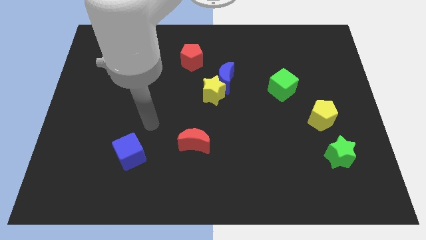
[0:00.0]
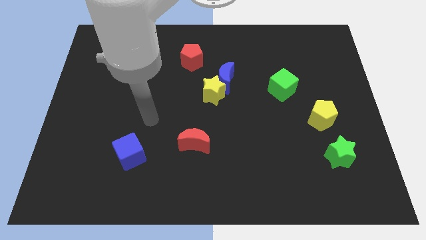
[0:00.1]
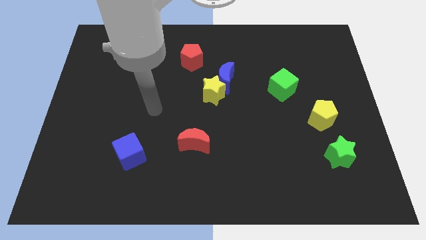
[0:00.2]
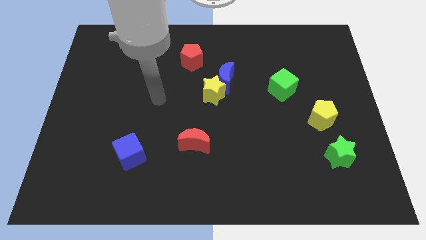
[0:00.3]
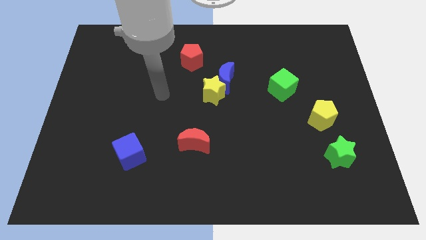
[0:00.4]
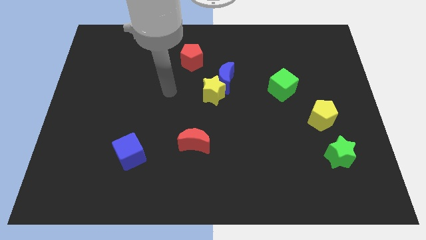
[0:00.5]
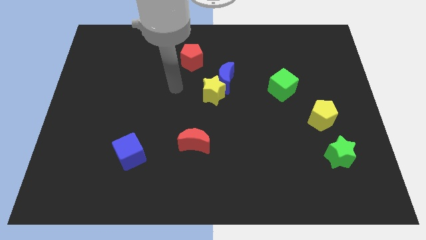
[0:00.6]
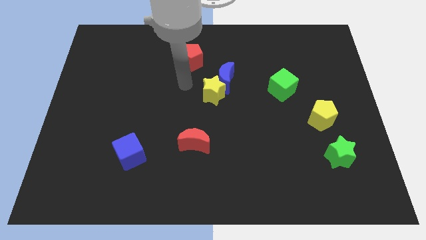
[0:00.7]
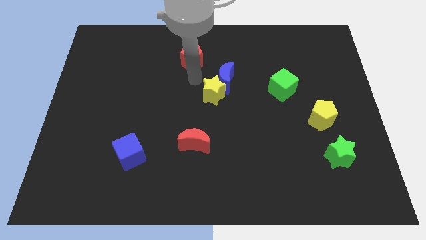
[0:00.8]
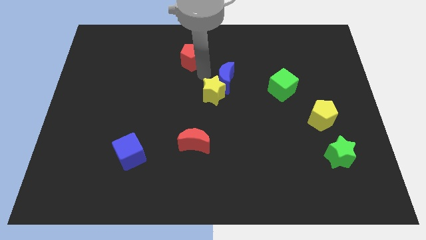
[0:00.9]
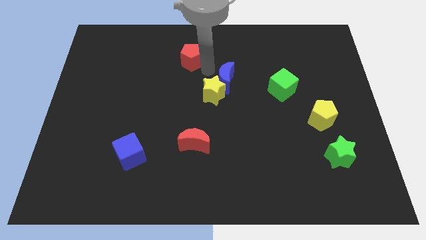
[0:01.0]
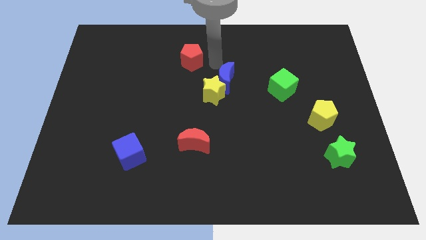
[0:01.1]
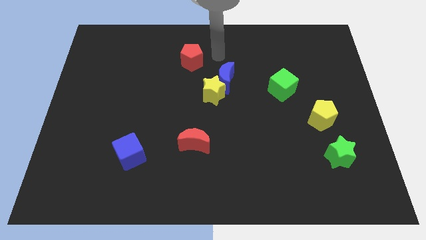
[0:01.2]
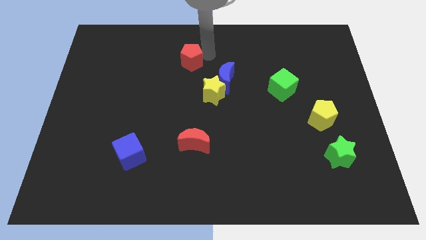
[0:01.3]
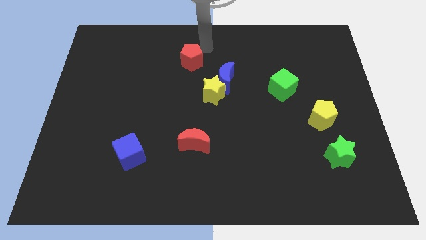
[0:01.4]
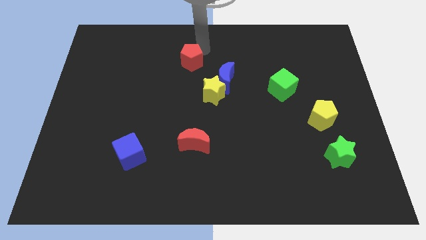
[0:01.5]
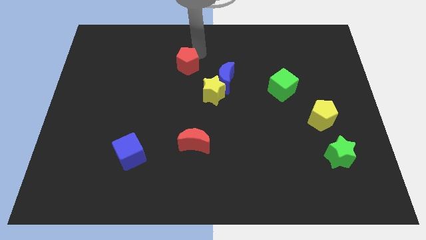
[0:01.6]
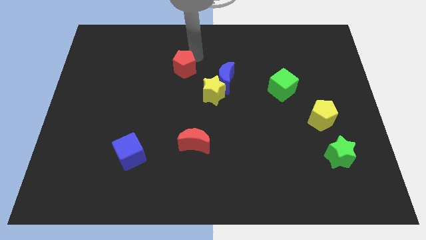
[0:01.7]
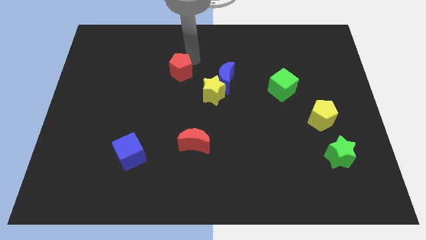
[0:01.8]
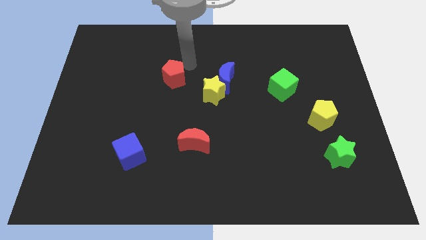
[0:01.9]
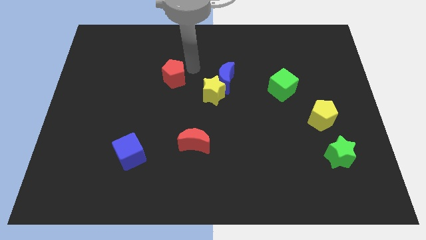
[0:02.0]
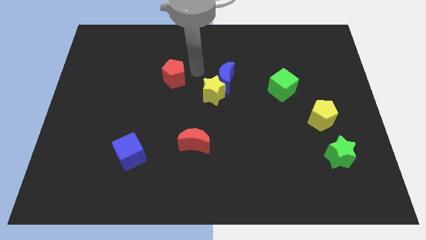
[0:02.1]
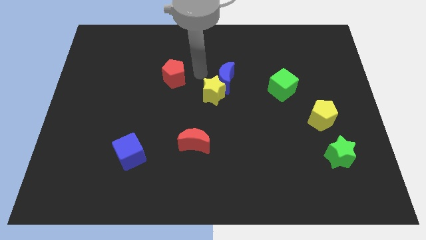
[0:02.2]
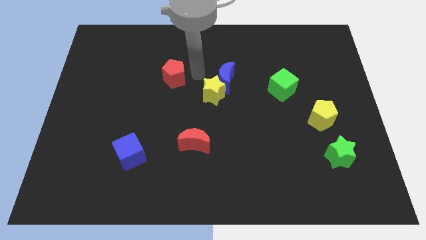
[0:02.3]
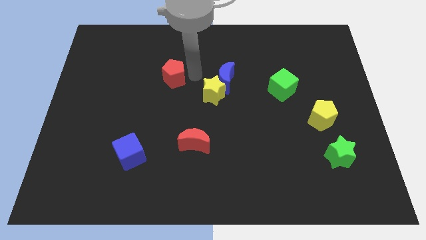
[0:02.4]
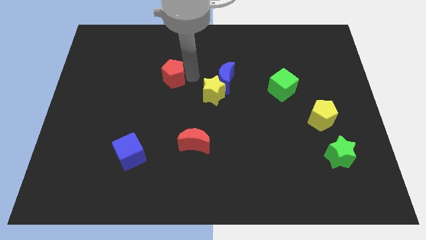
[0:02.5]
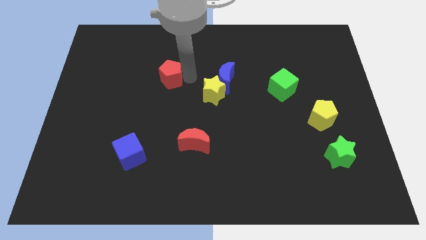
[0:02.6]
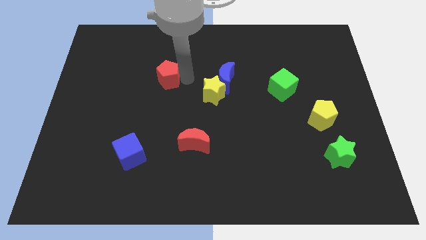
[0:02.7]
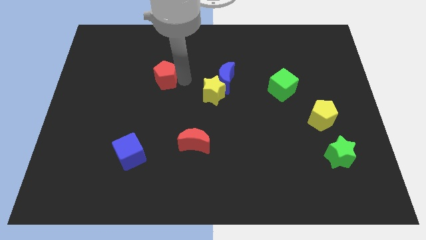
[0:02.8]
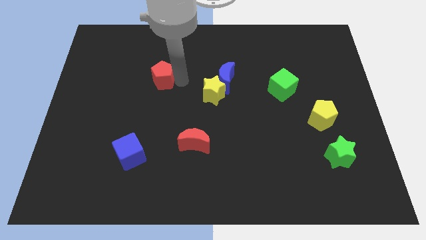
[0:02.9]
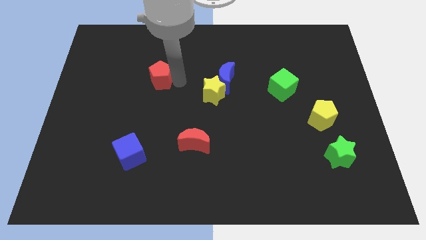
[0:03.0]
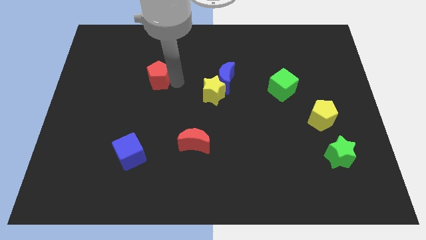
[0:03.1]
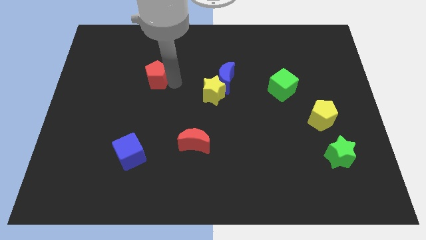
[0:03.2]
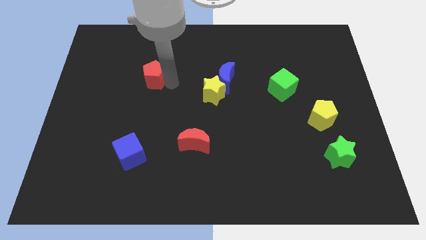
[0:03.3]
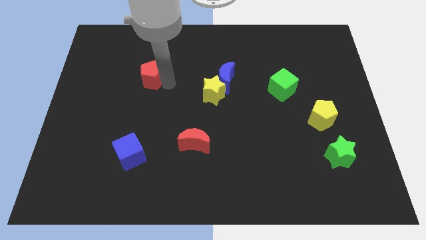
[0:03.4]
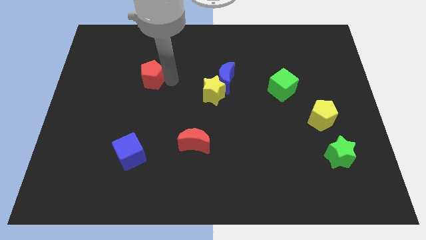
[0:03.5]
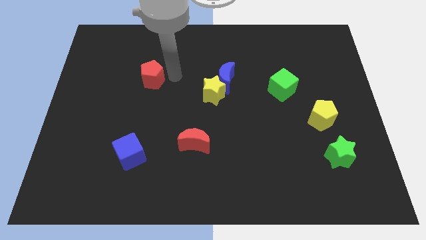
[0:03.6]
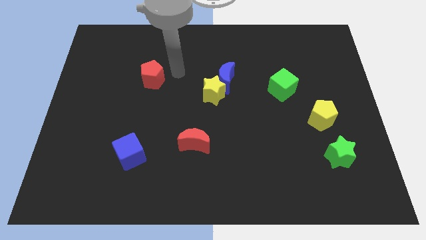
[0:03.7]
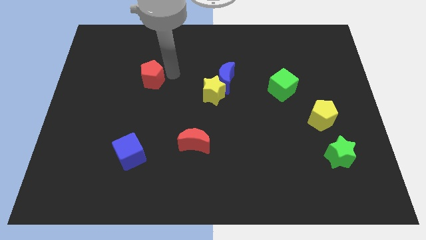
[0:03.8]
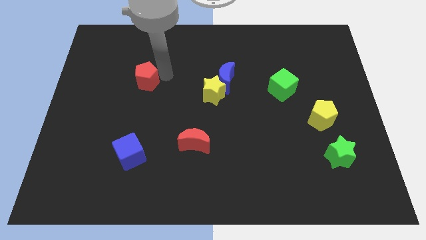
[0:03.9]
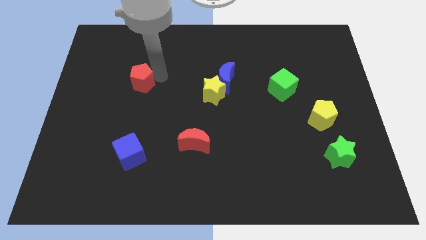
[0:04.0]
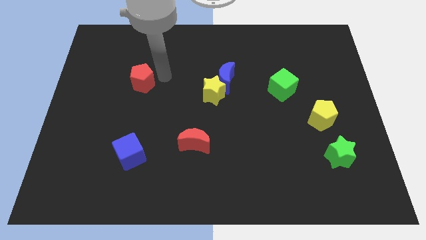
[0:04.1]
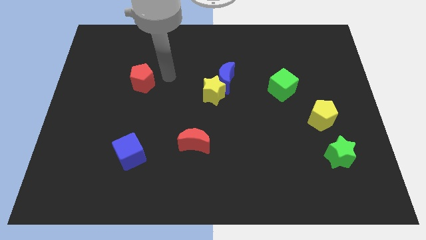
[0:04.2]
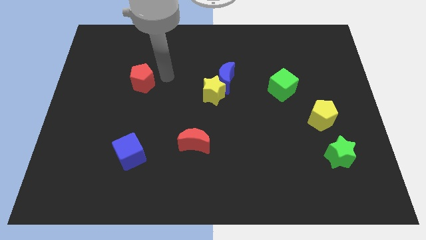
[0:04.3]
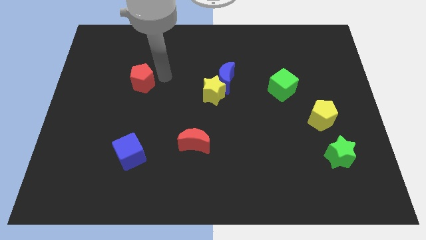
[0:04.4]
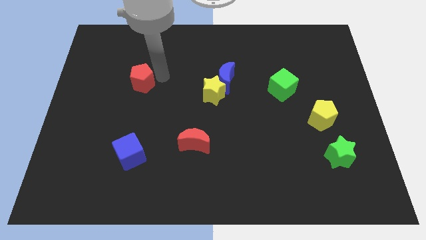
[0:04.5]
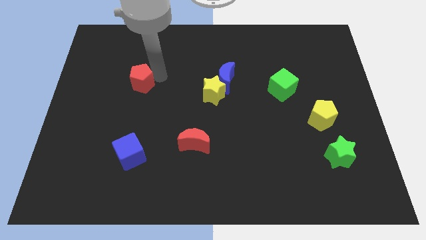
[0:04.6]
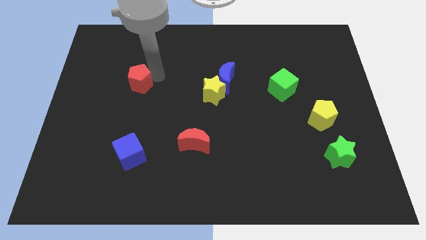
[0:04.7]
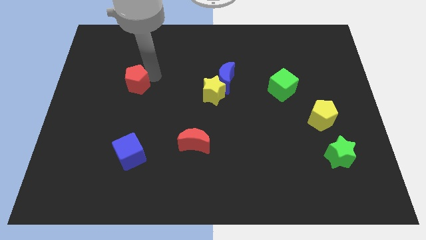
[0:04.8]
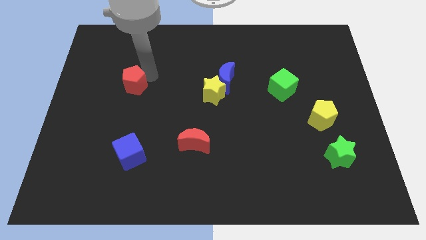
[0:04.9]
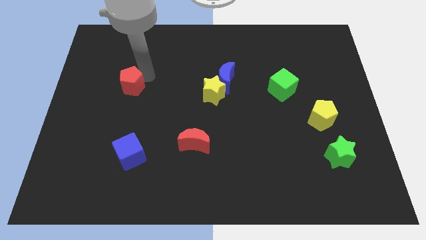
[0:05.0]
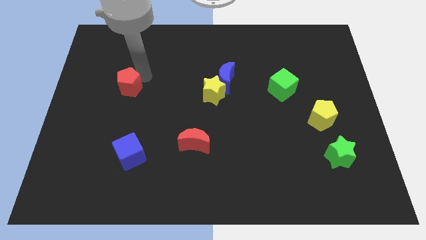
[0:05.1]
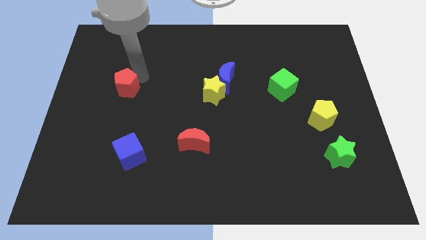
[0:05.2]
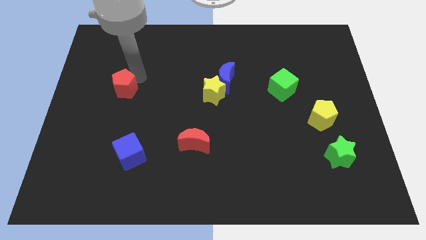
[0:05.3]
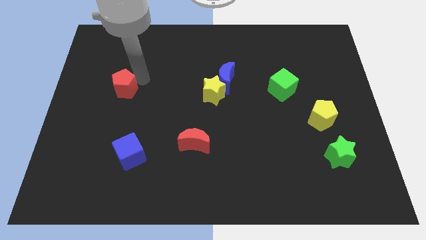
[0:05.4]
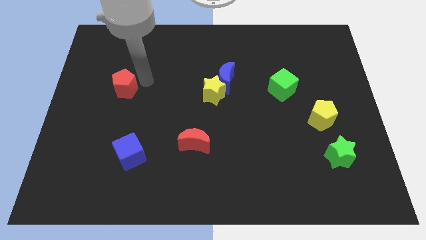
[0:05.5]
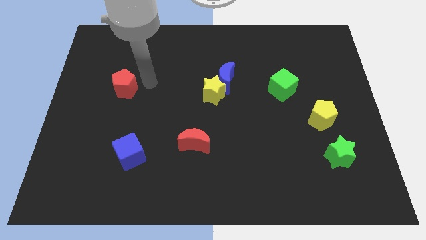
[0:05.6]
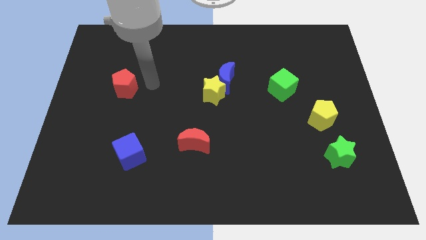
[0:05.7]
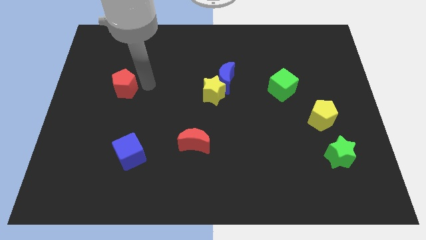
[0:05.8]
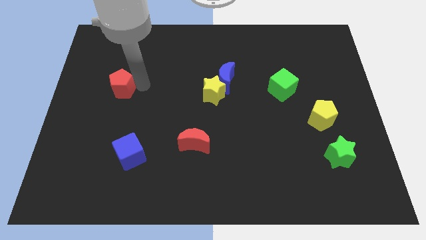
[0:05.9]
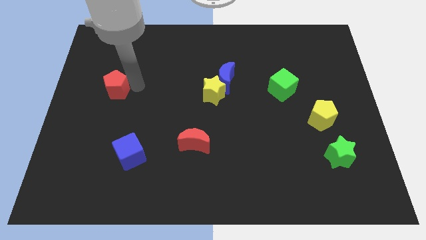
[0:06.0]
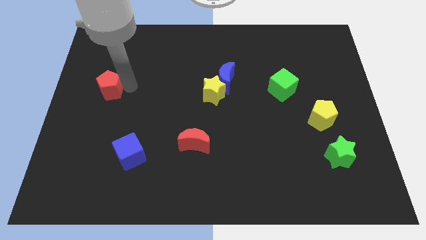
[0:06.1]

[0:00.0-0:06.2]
slide the red pentagon to the center left

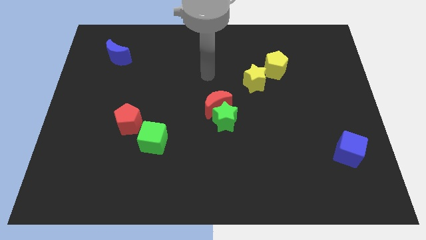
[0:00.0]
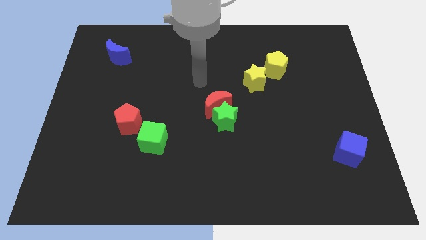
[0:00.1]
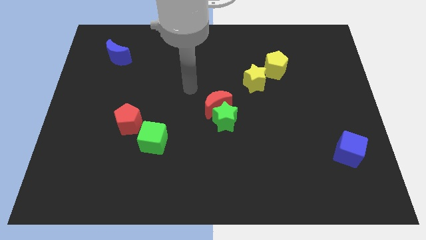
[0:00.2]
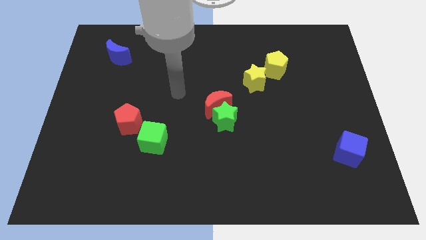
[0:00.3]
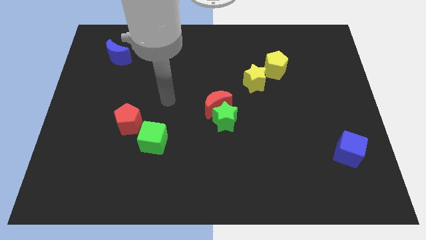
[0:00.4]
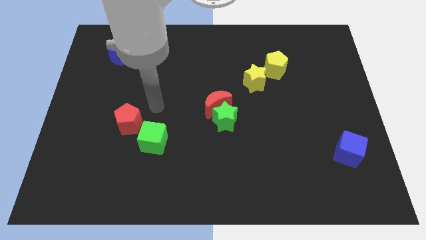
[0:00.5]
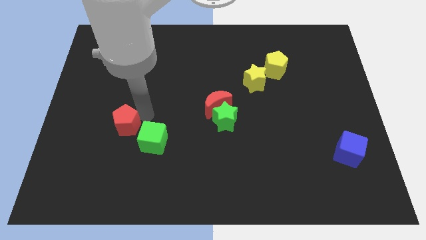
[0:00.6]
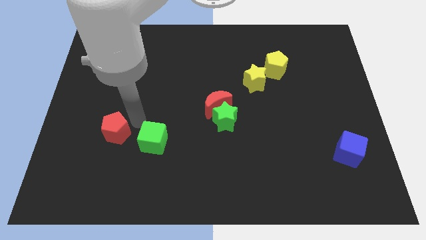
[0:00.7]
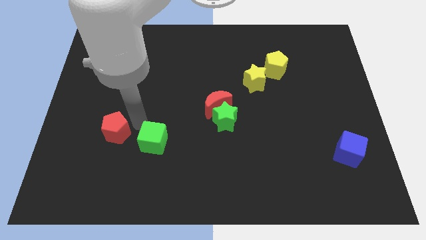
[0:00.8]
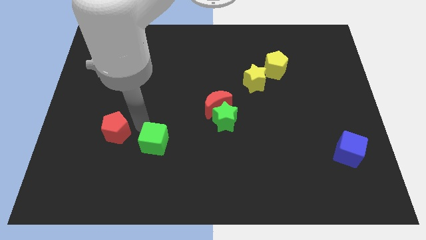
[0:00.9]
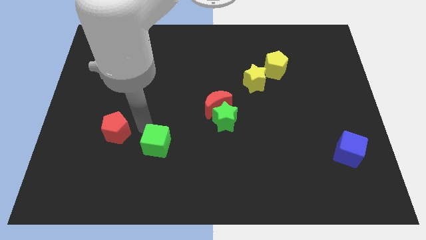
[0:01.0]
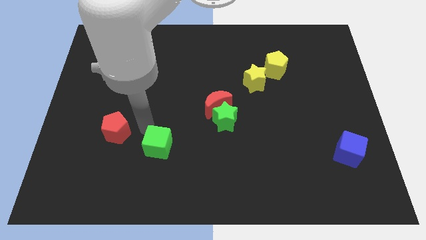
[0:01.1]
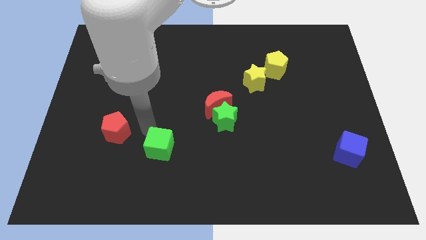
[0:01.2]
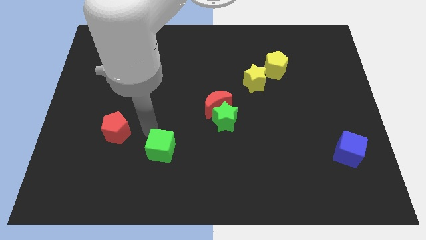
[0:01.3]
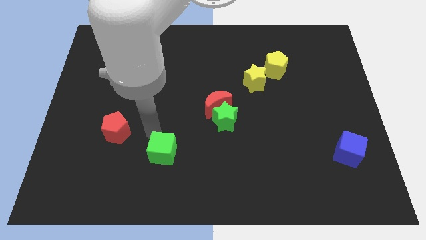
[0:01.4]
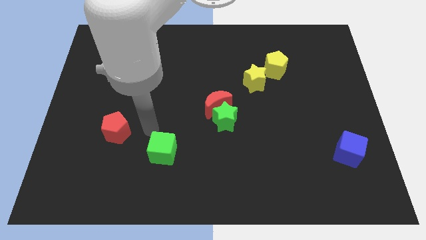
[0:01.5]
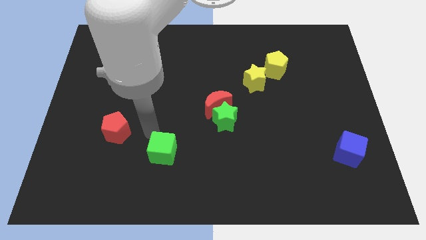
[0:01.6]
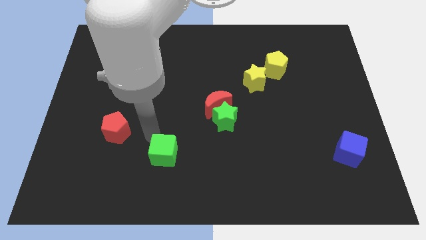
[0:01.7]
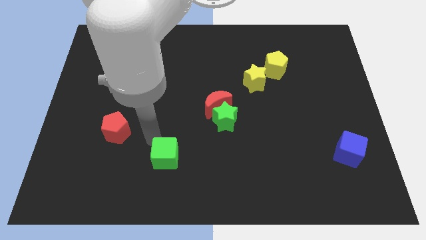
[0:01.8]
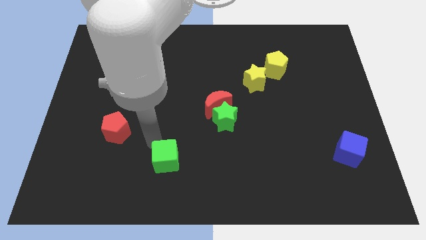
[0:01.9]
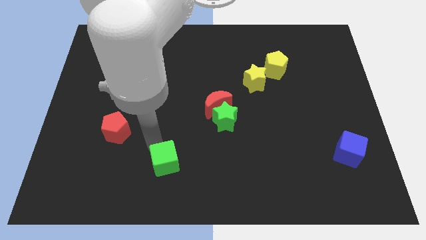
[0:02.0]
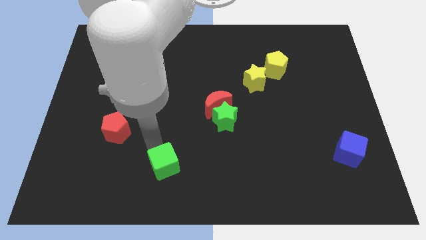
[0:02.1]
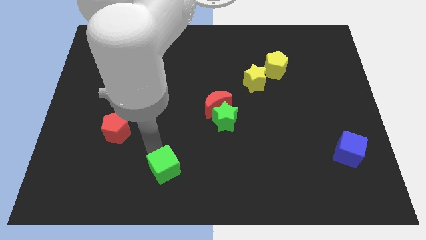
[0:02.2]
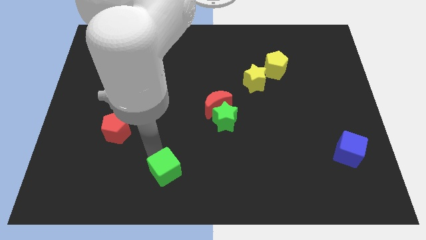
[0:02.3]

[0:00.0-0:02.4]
slide the green cube to the bottom
